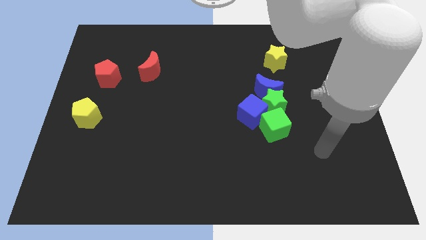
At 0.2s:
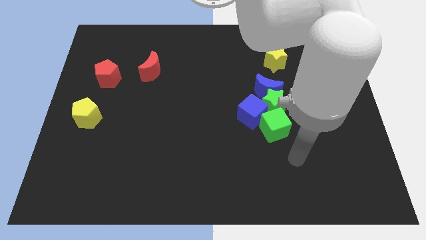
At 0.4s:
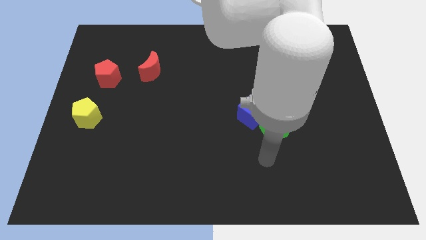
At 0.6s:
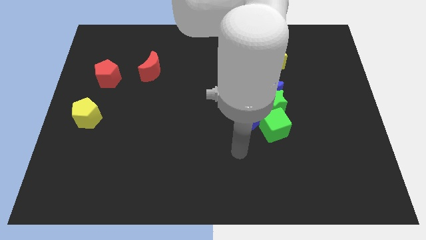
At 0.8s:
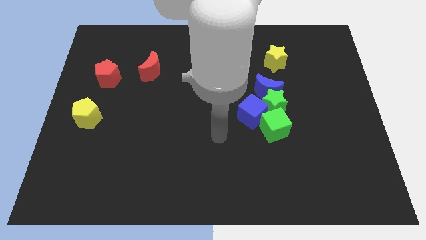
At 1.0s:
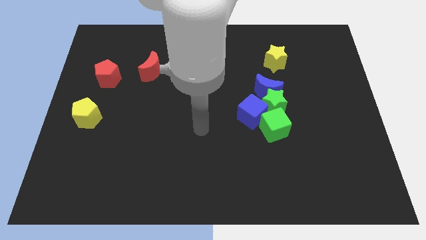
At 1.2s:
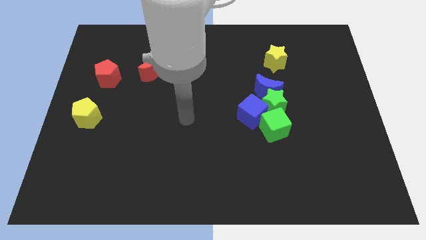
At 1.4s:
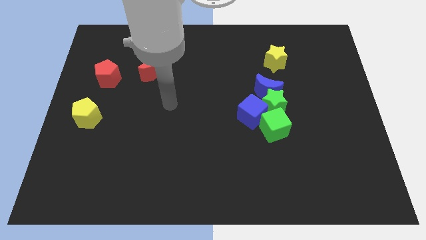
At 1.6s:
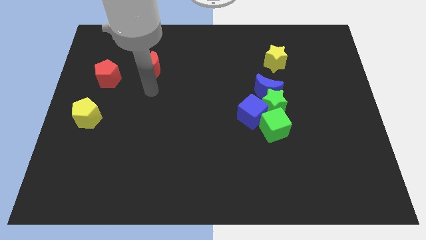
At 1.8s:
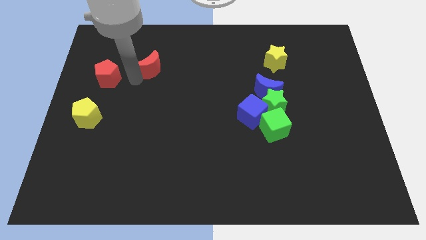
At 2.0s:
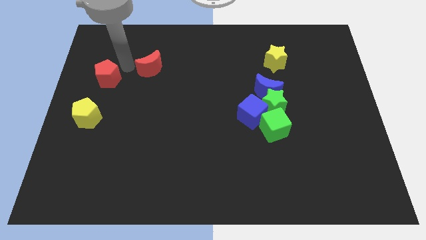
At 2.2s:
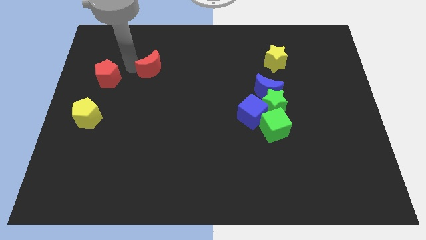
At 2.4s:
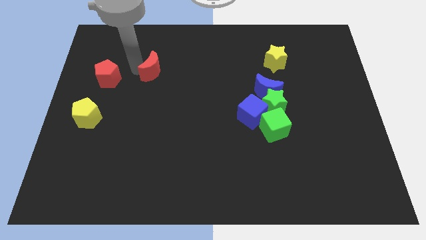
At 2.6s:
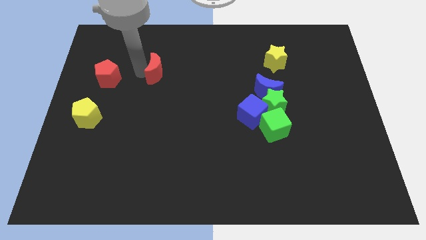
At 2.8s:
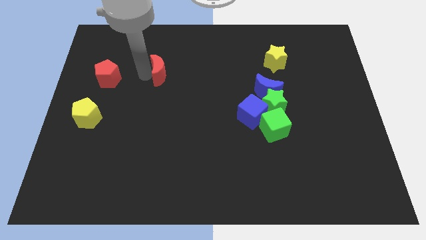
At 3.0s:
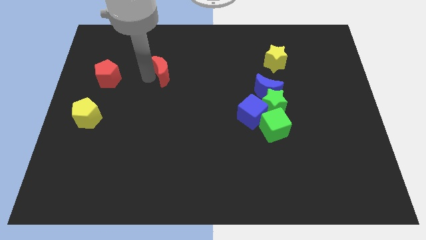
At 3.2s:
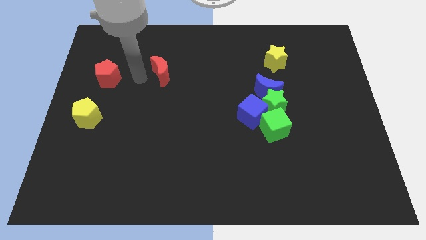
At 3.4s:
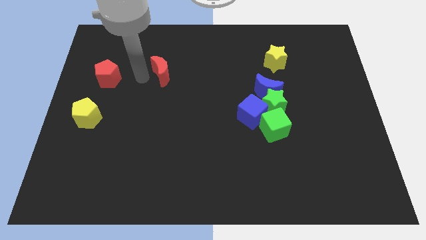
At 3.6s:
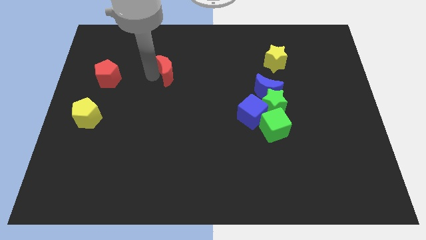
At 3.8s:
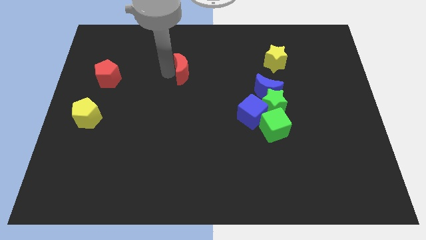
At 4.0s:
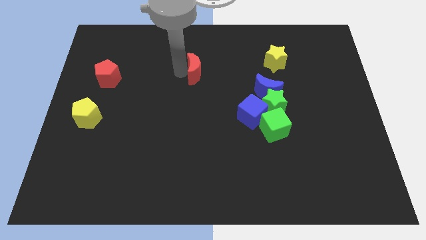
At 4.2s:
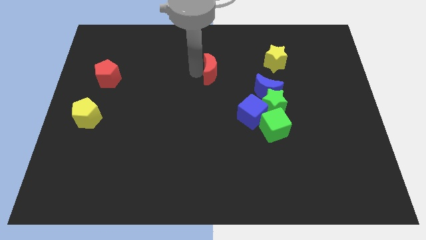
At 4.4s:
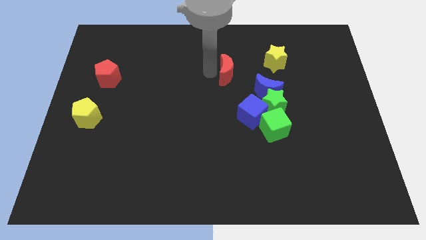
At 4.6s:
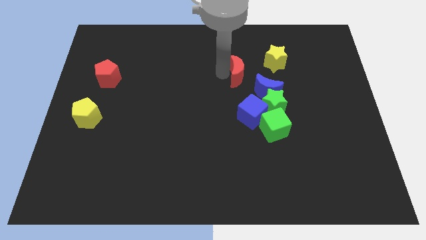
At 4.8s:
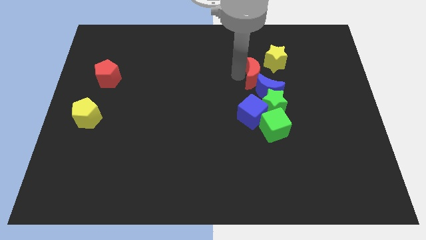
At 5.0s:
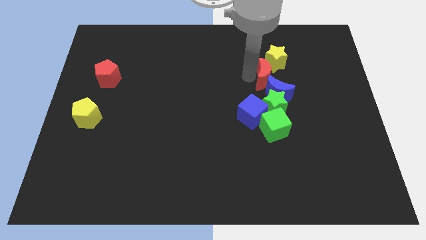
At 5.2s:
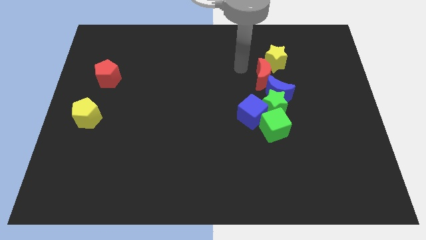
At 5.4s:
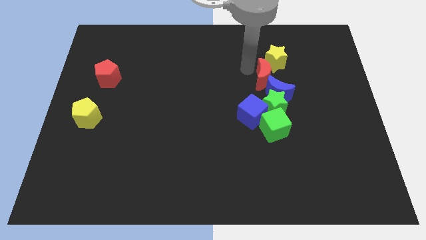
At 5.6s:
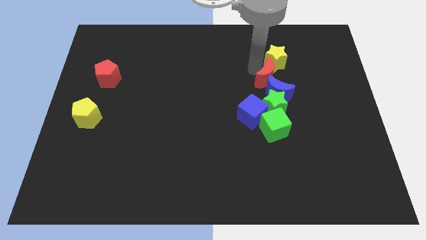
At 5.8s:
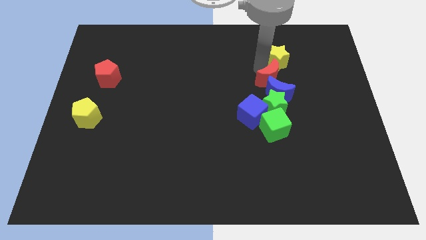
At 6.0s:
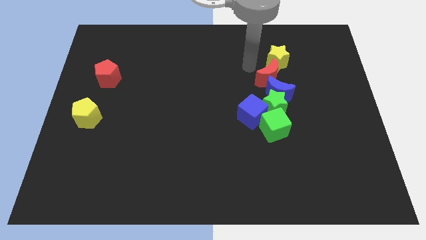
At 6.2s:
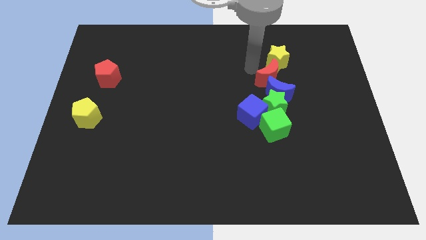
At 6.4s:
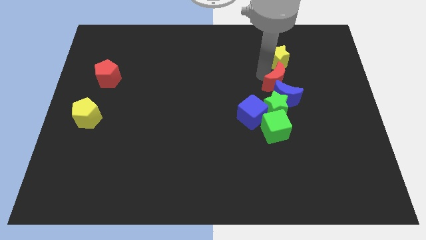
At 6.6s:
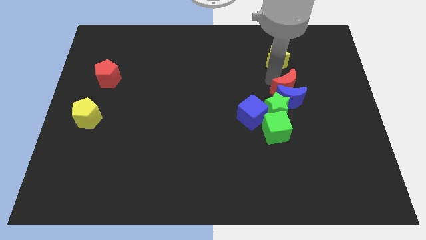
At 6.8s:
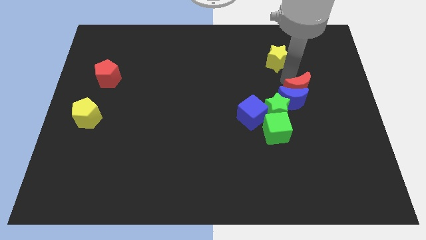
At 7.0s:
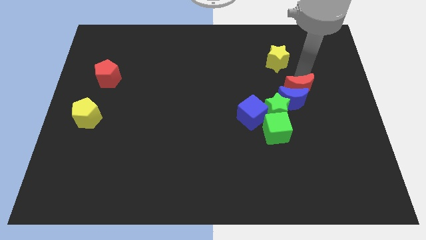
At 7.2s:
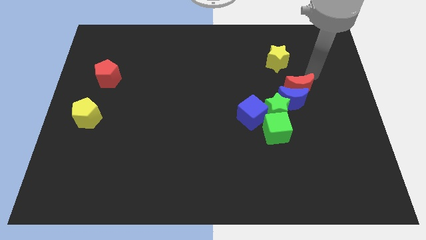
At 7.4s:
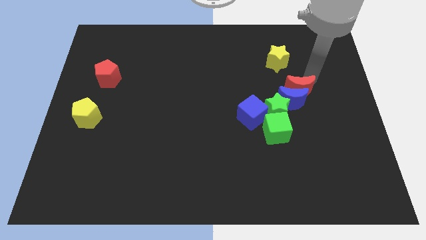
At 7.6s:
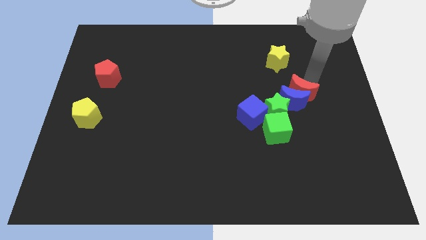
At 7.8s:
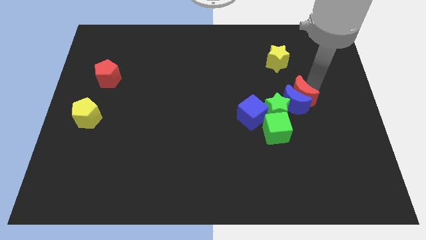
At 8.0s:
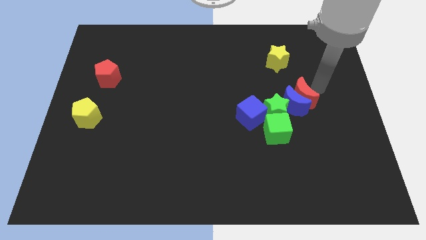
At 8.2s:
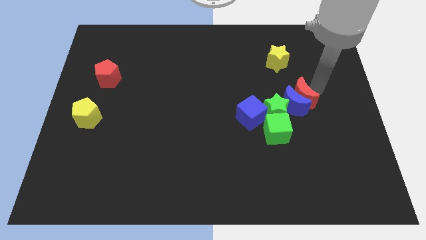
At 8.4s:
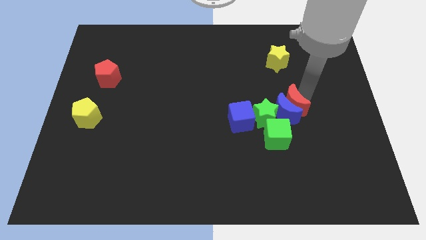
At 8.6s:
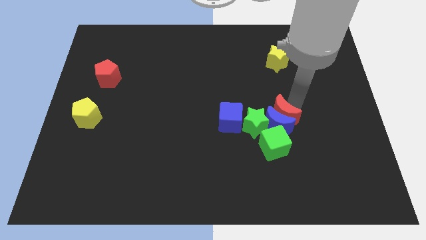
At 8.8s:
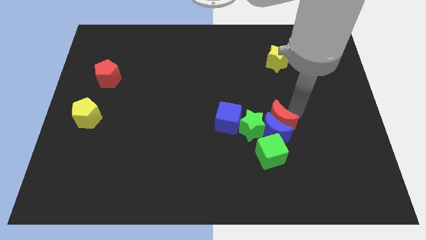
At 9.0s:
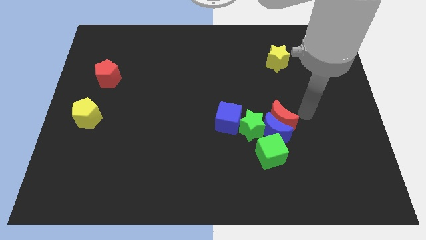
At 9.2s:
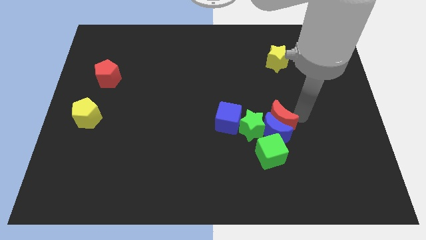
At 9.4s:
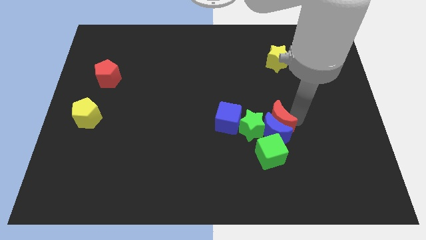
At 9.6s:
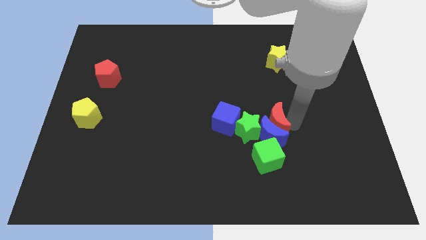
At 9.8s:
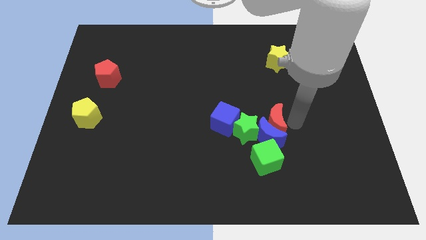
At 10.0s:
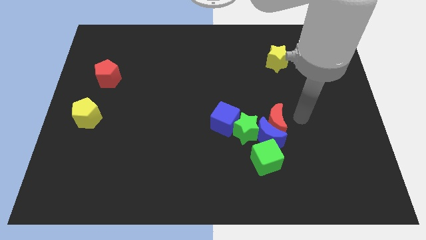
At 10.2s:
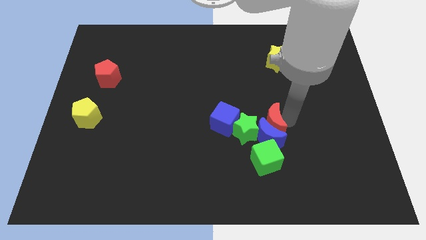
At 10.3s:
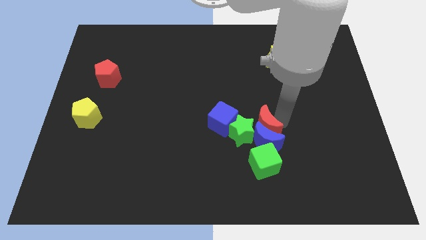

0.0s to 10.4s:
push the red moon to the green star

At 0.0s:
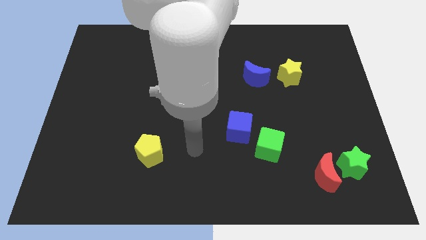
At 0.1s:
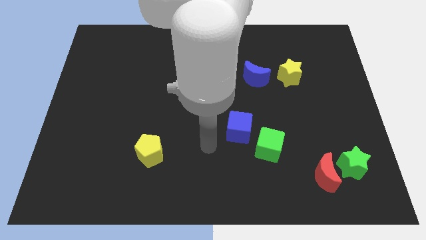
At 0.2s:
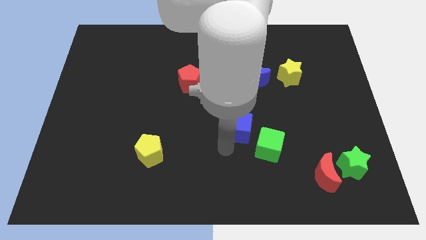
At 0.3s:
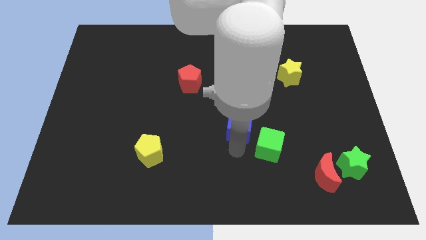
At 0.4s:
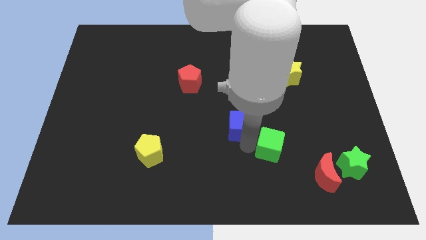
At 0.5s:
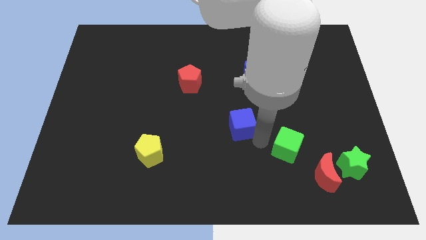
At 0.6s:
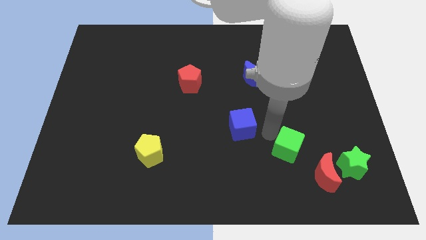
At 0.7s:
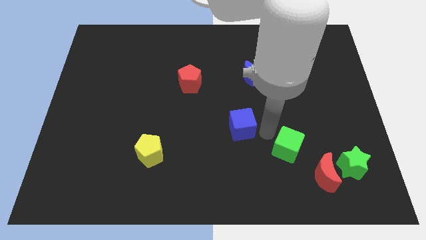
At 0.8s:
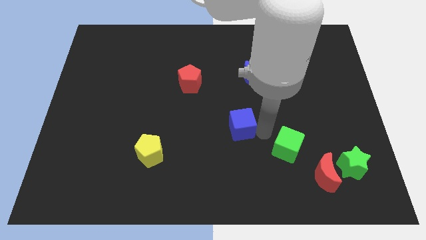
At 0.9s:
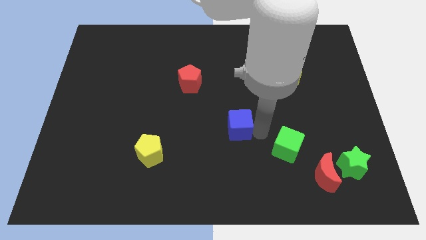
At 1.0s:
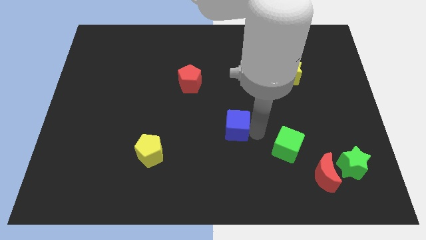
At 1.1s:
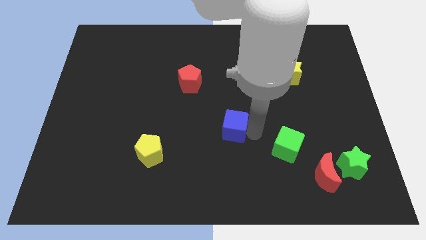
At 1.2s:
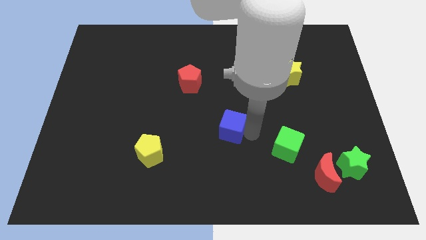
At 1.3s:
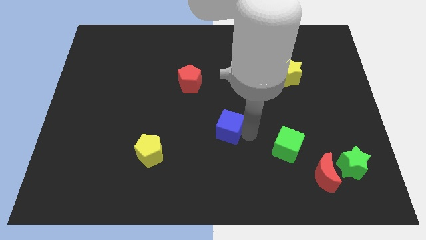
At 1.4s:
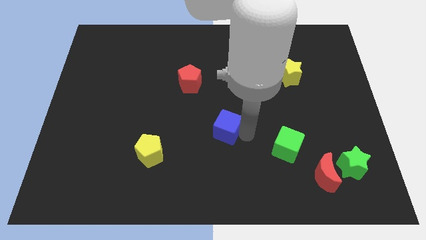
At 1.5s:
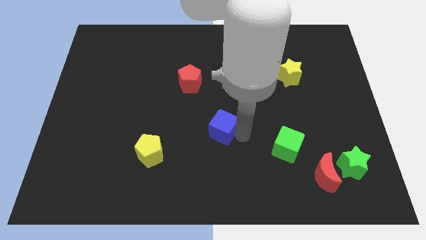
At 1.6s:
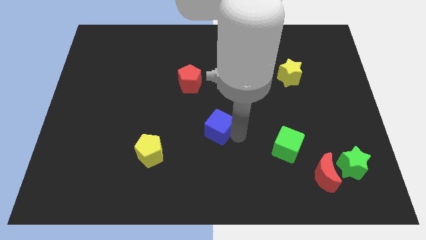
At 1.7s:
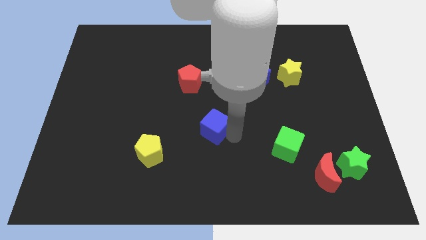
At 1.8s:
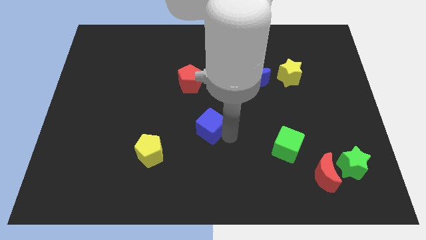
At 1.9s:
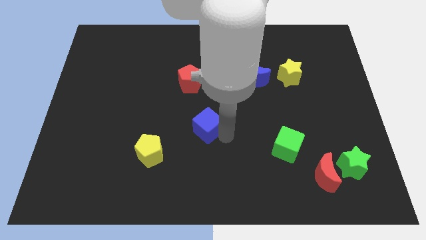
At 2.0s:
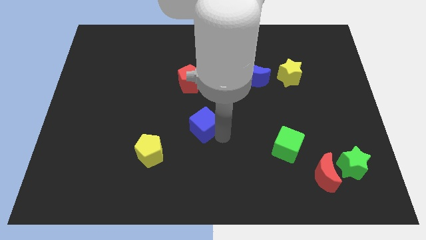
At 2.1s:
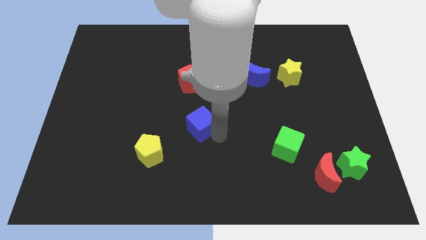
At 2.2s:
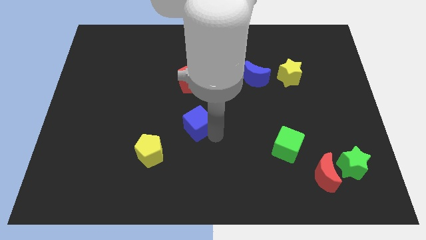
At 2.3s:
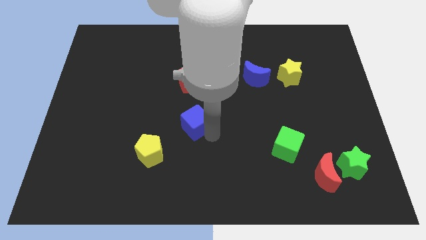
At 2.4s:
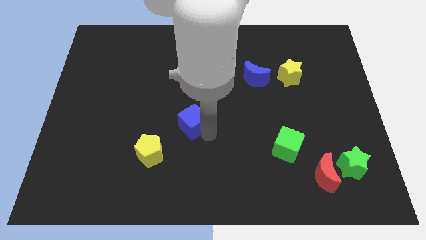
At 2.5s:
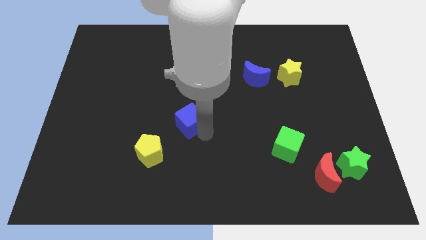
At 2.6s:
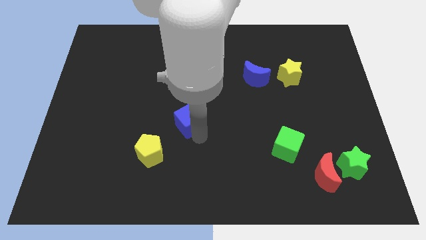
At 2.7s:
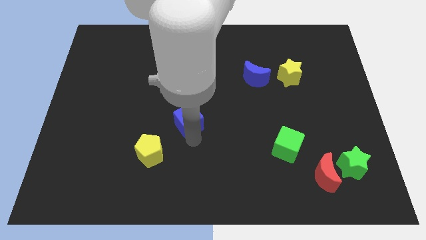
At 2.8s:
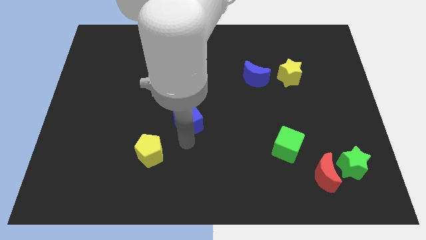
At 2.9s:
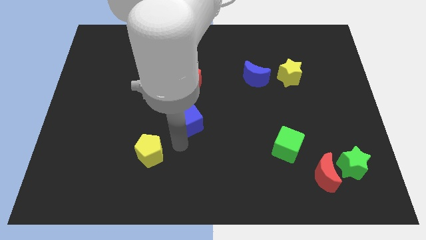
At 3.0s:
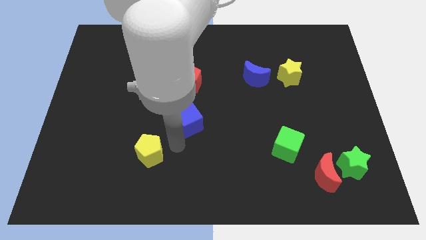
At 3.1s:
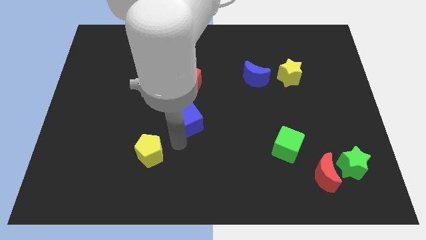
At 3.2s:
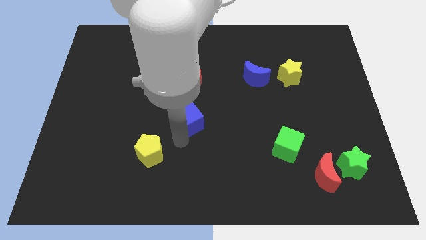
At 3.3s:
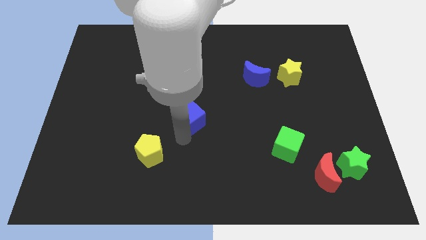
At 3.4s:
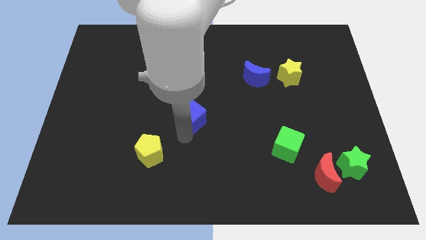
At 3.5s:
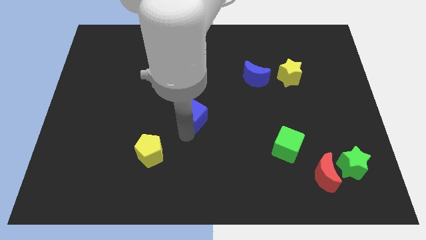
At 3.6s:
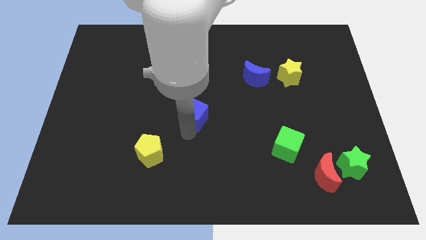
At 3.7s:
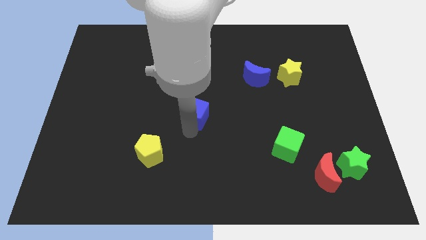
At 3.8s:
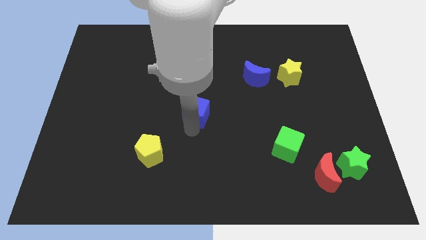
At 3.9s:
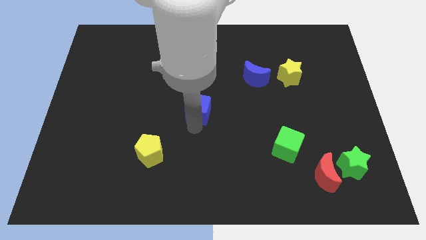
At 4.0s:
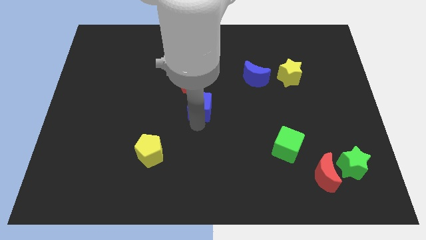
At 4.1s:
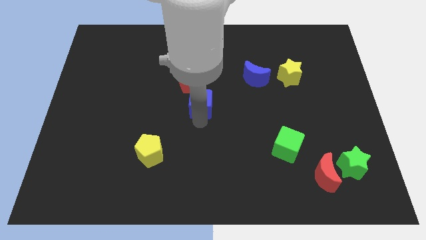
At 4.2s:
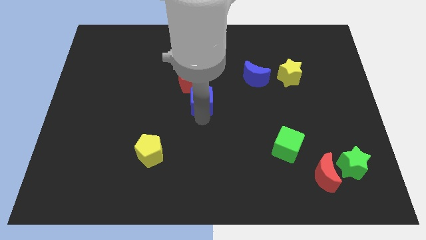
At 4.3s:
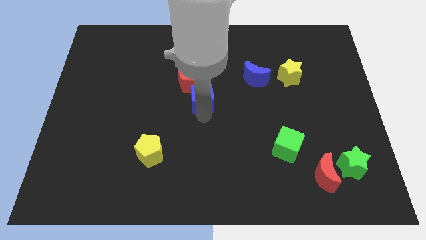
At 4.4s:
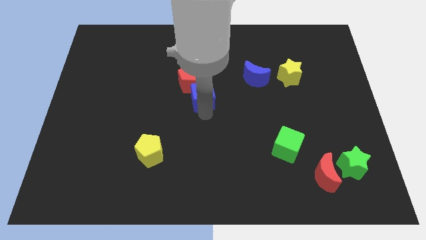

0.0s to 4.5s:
push the blue cube next to the red pentagon
